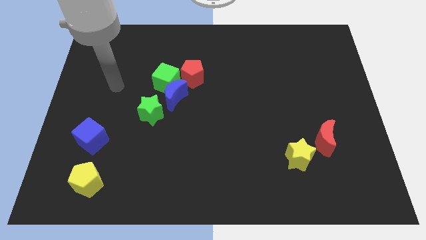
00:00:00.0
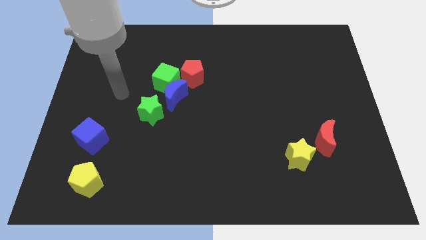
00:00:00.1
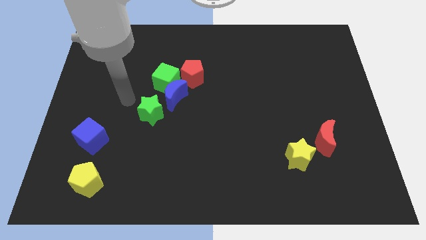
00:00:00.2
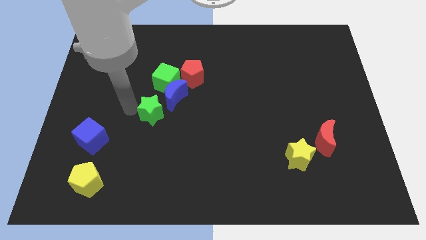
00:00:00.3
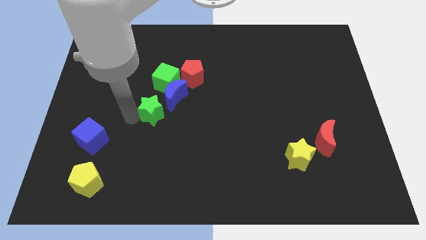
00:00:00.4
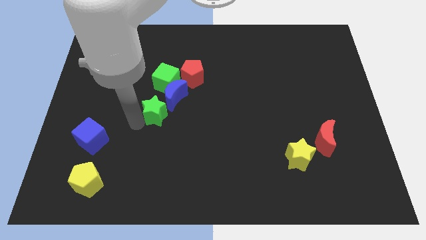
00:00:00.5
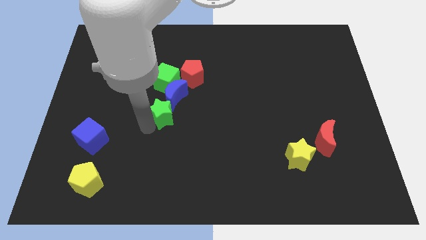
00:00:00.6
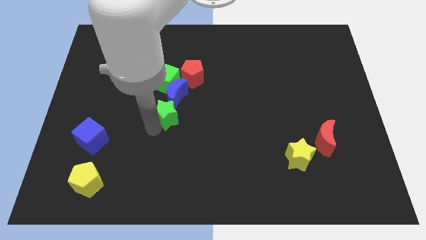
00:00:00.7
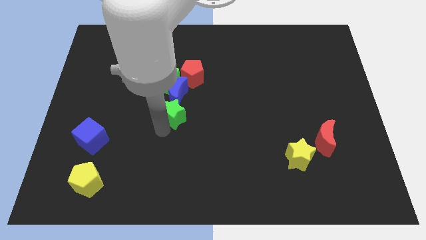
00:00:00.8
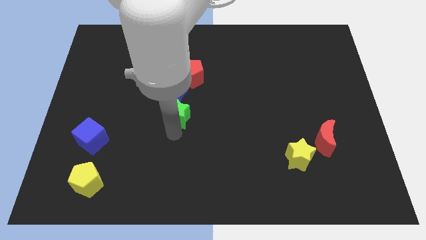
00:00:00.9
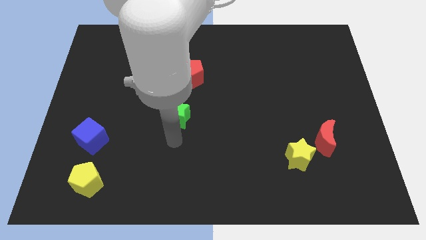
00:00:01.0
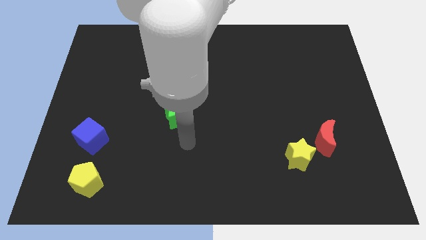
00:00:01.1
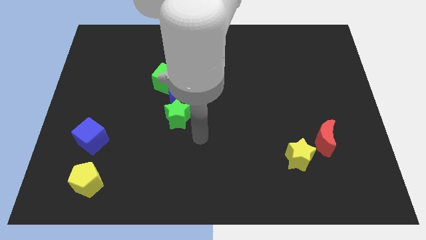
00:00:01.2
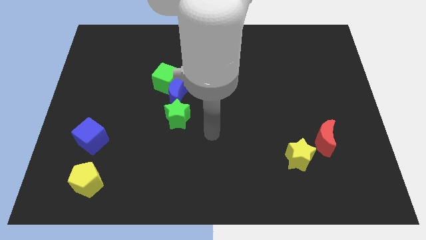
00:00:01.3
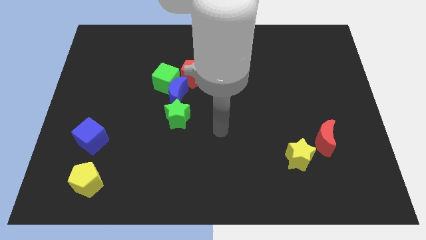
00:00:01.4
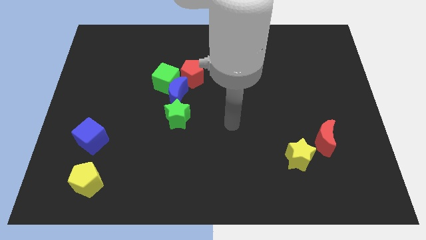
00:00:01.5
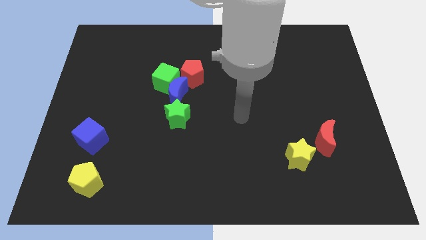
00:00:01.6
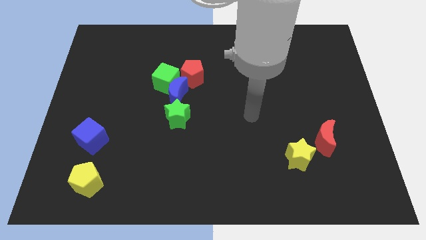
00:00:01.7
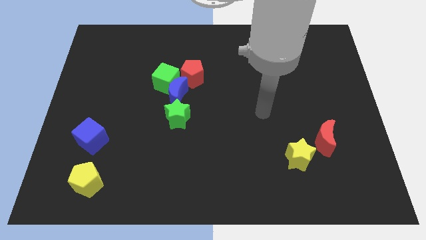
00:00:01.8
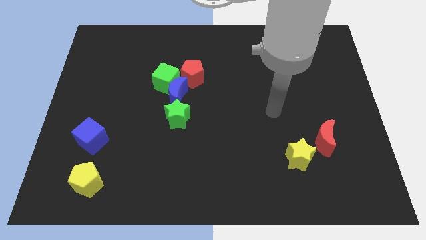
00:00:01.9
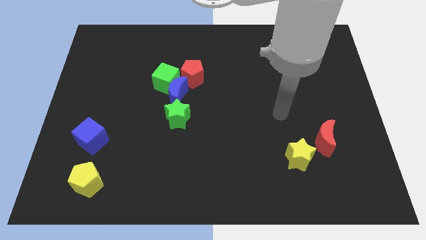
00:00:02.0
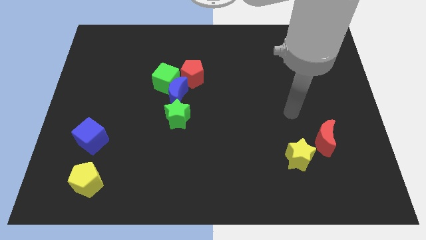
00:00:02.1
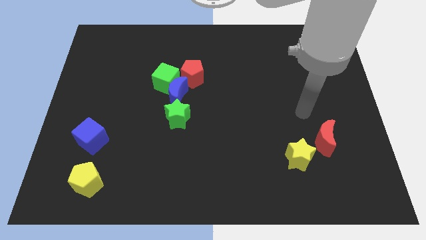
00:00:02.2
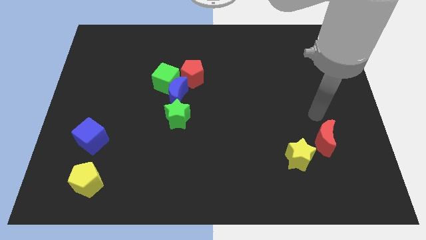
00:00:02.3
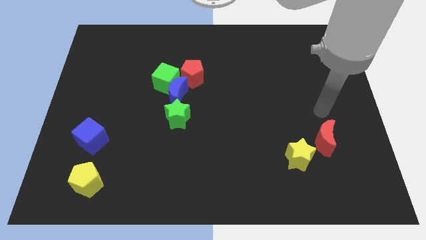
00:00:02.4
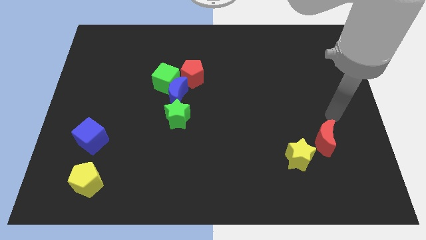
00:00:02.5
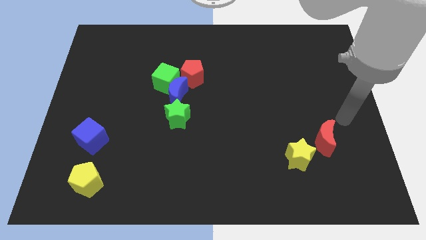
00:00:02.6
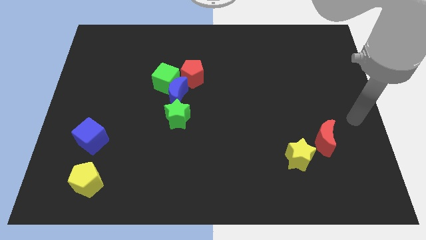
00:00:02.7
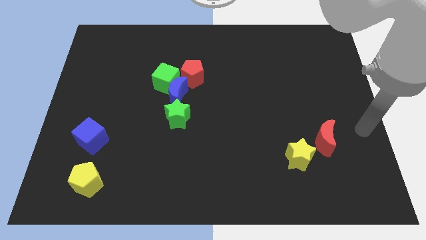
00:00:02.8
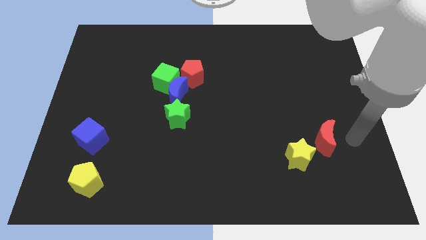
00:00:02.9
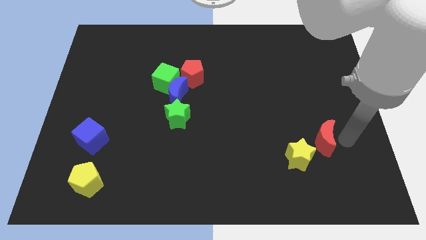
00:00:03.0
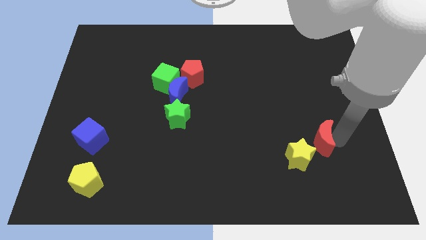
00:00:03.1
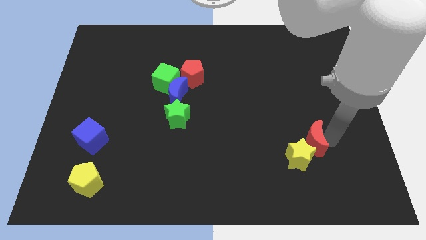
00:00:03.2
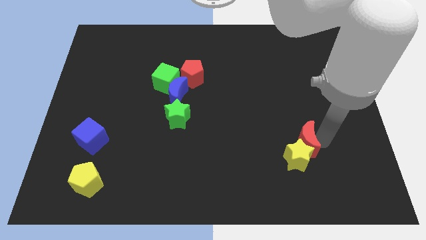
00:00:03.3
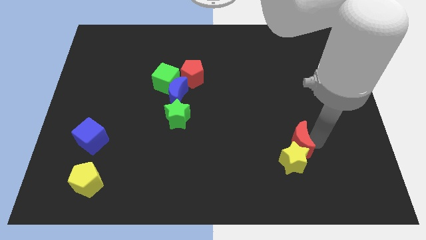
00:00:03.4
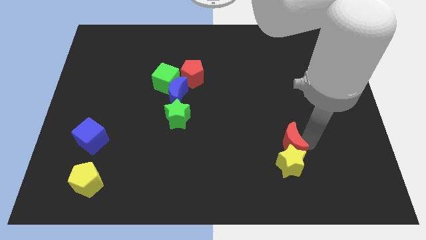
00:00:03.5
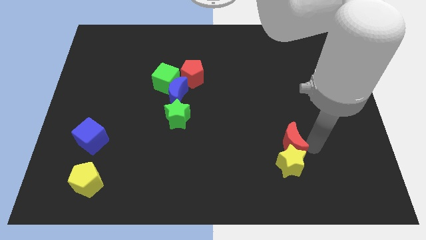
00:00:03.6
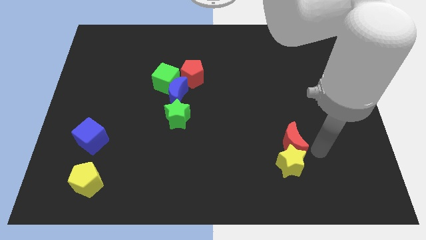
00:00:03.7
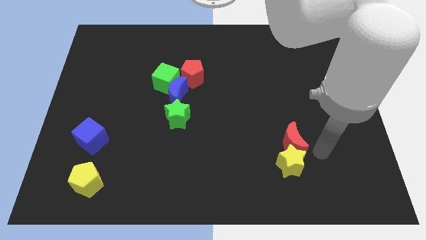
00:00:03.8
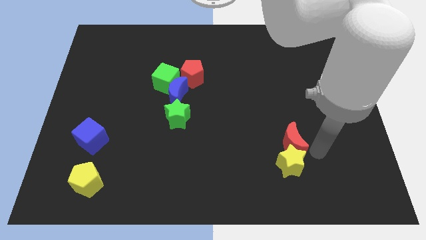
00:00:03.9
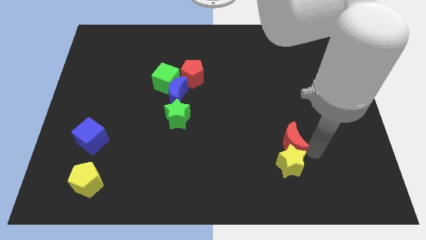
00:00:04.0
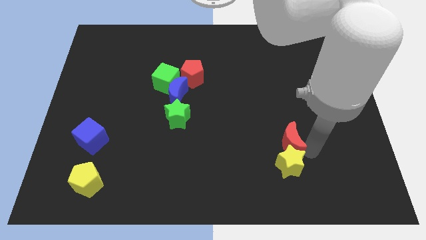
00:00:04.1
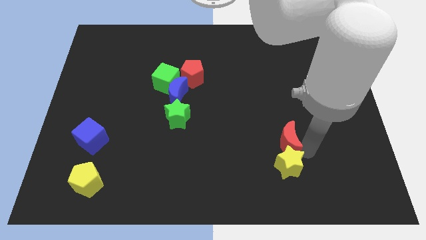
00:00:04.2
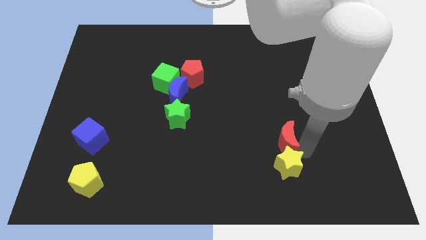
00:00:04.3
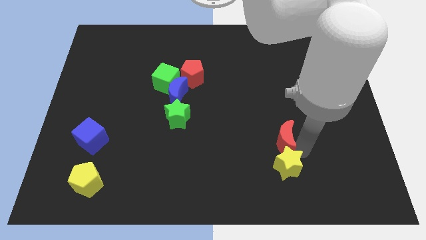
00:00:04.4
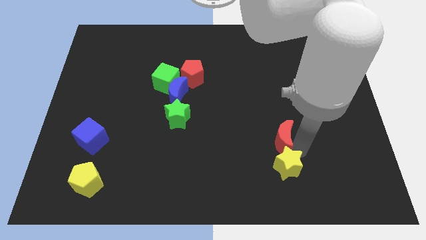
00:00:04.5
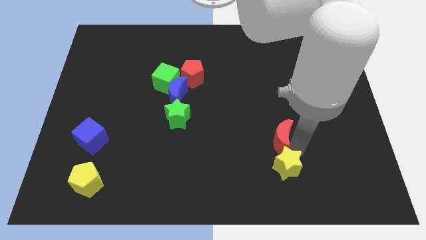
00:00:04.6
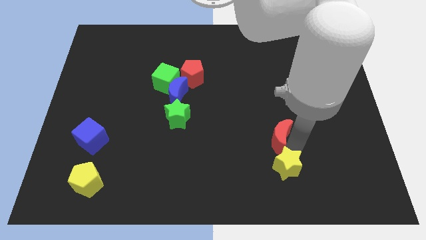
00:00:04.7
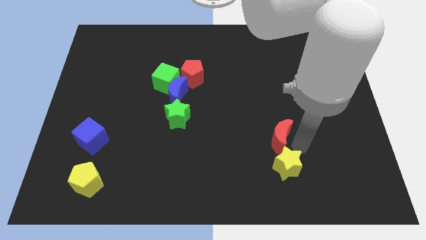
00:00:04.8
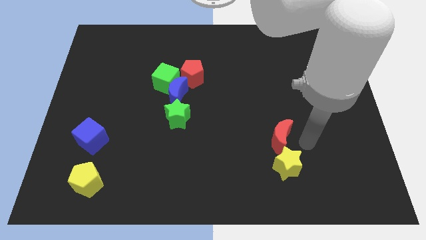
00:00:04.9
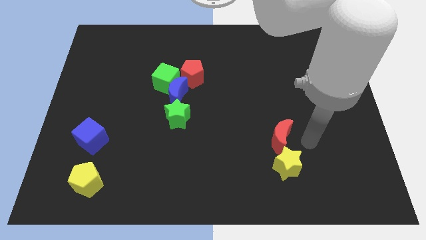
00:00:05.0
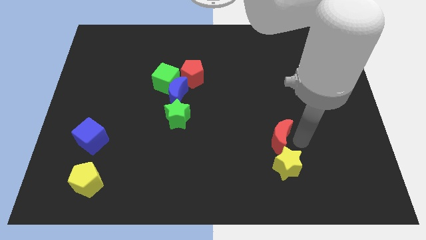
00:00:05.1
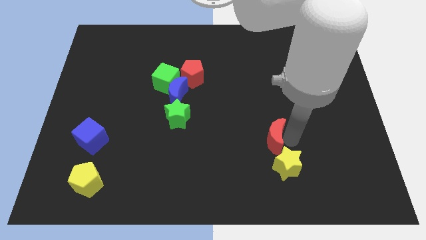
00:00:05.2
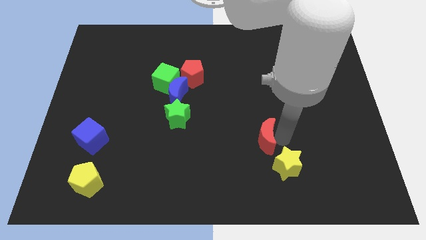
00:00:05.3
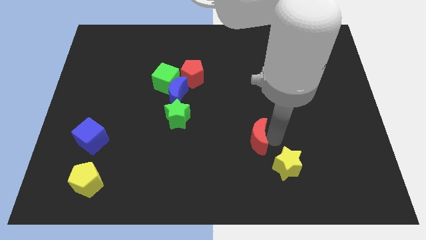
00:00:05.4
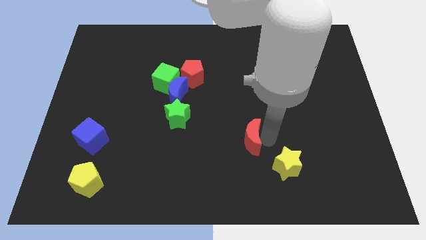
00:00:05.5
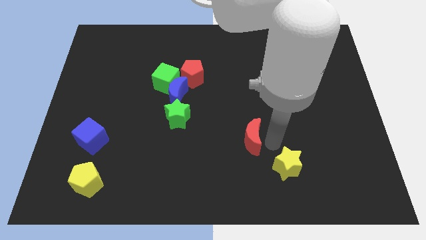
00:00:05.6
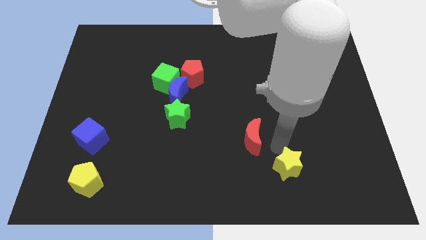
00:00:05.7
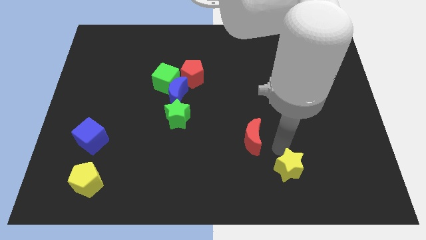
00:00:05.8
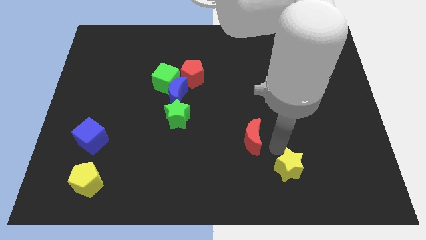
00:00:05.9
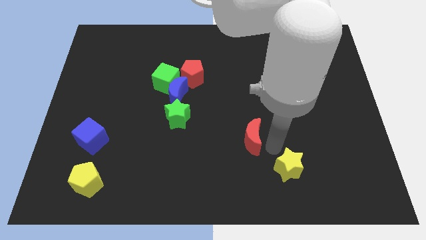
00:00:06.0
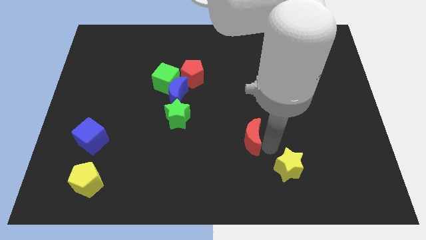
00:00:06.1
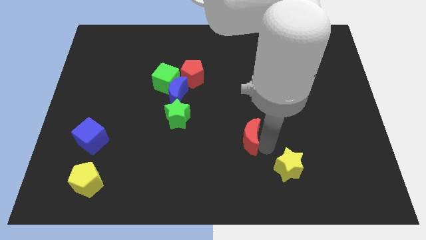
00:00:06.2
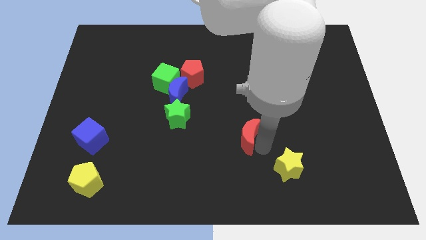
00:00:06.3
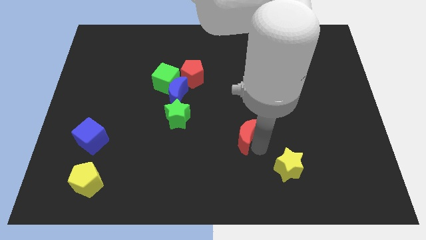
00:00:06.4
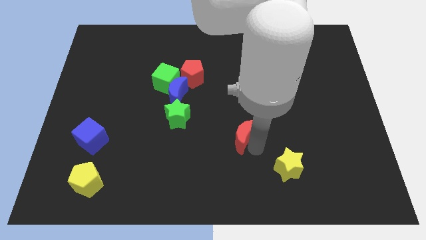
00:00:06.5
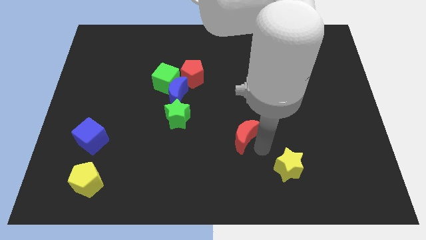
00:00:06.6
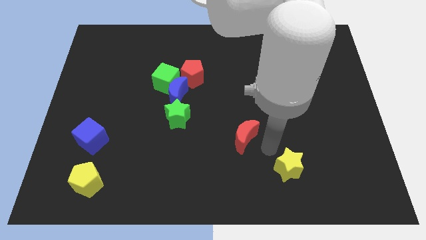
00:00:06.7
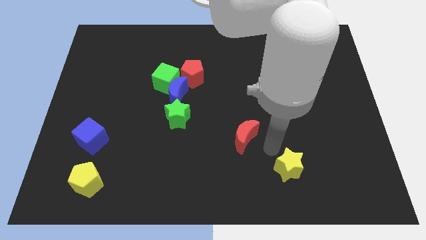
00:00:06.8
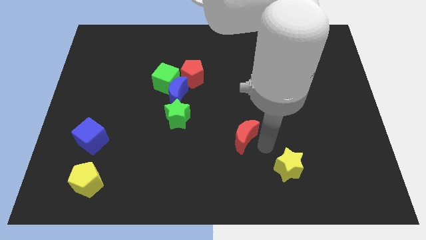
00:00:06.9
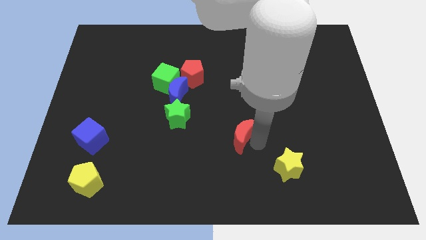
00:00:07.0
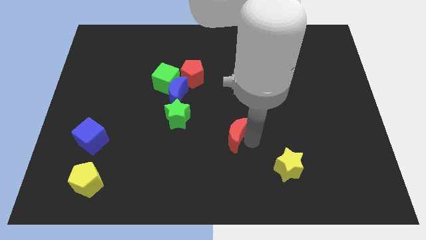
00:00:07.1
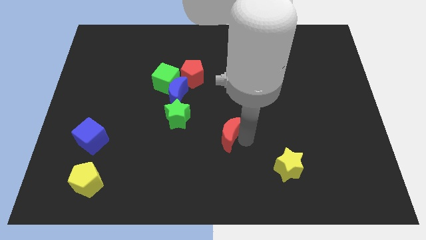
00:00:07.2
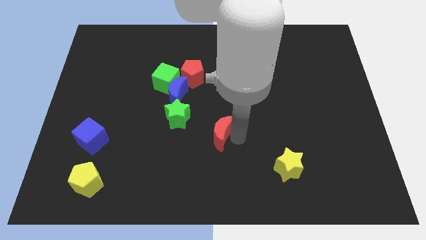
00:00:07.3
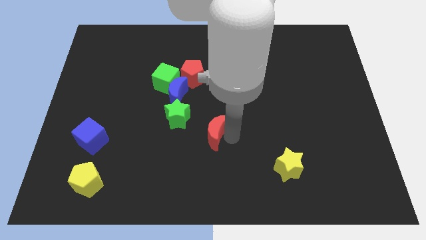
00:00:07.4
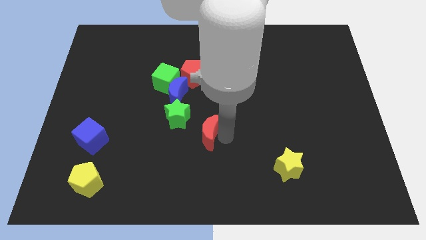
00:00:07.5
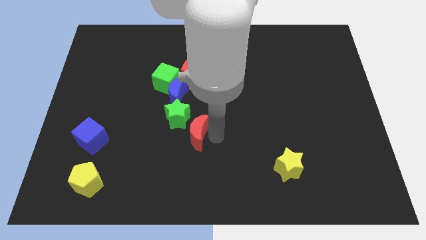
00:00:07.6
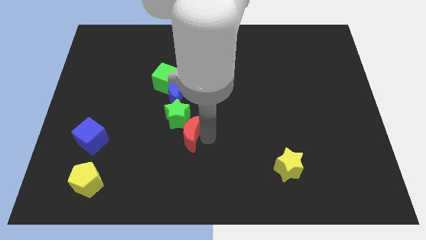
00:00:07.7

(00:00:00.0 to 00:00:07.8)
push the red moon close to the green star
